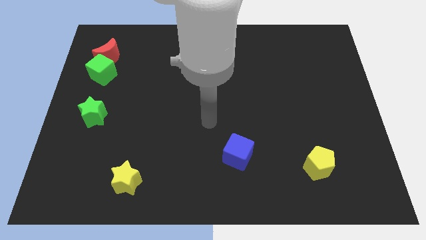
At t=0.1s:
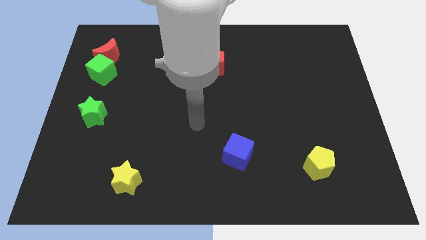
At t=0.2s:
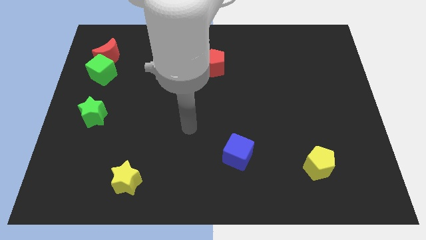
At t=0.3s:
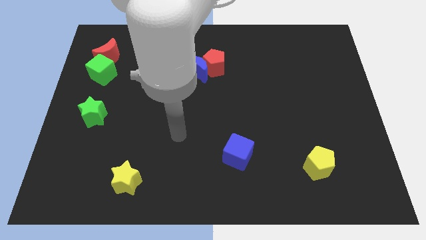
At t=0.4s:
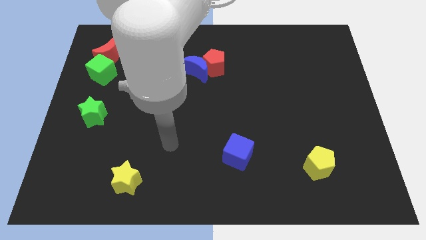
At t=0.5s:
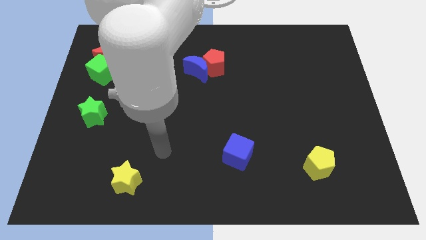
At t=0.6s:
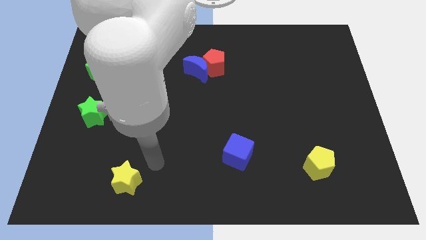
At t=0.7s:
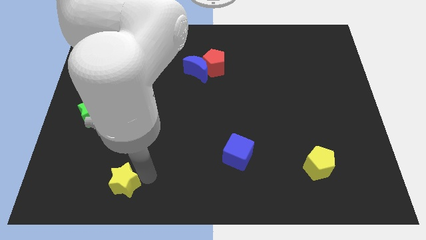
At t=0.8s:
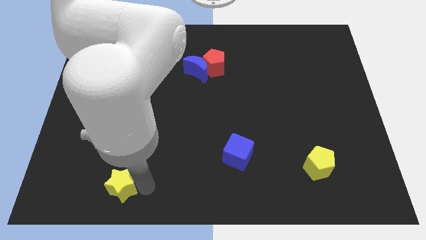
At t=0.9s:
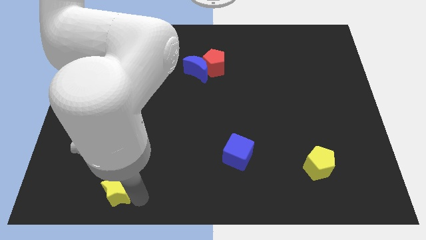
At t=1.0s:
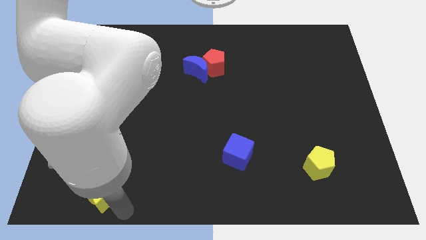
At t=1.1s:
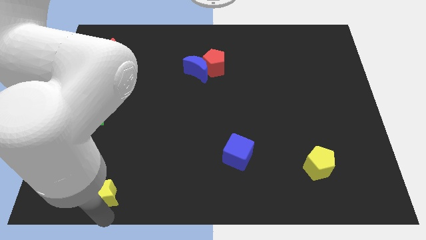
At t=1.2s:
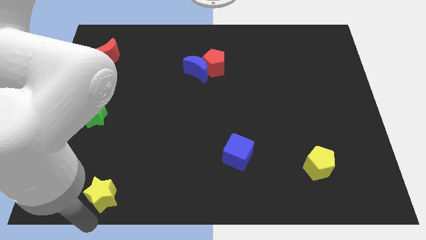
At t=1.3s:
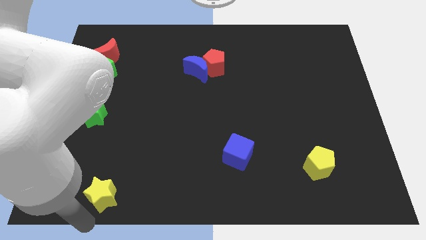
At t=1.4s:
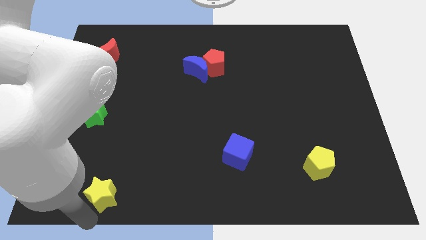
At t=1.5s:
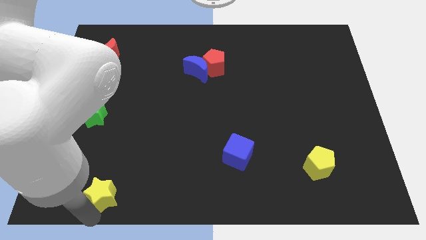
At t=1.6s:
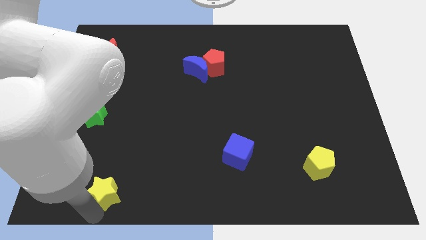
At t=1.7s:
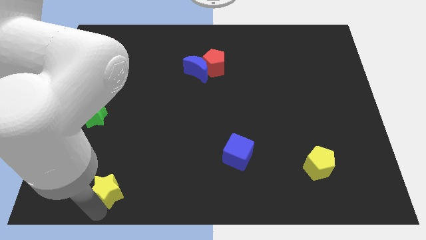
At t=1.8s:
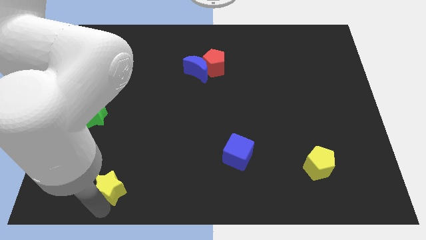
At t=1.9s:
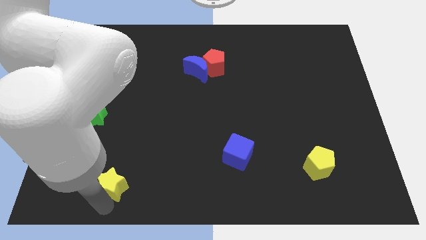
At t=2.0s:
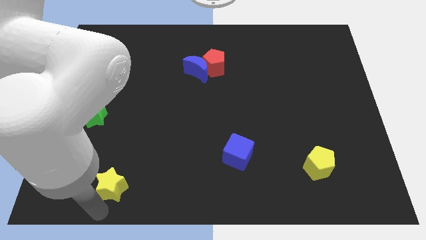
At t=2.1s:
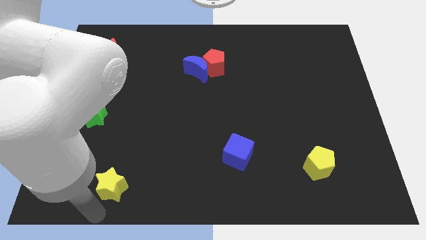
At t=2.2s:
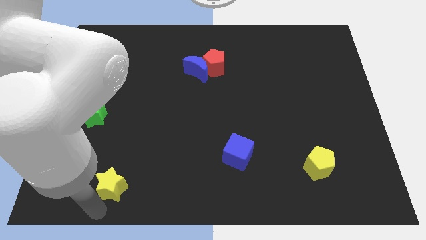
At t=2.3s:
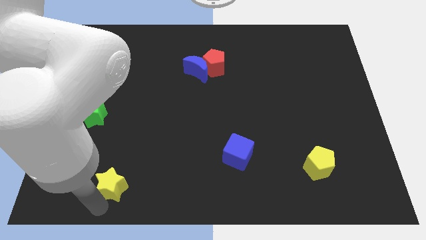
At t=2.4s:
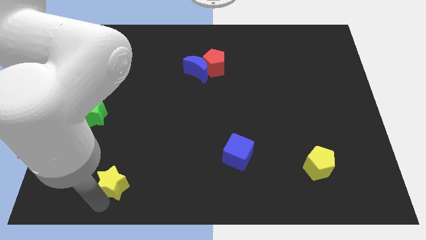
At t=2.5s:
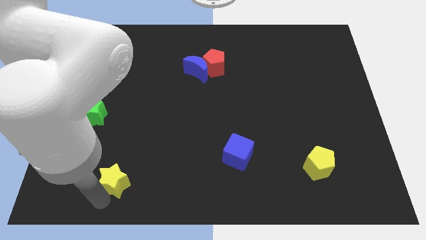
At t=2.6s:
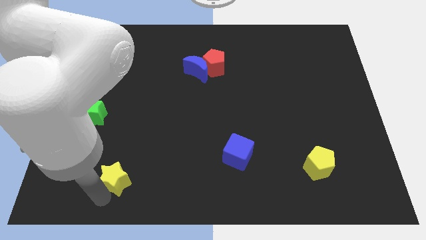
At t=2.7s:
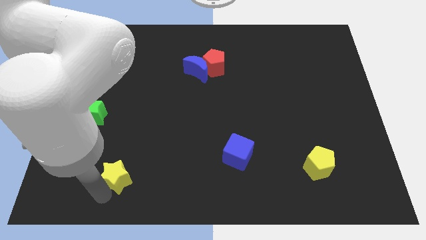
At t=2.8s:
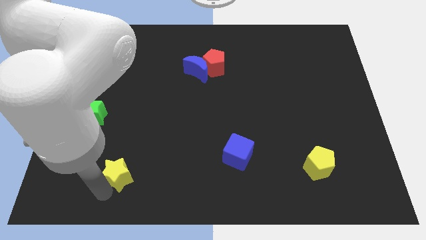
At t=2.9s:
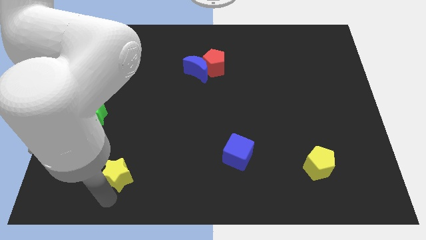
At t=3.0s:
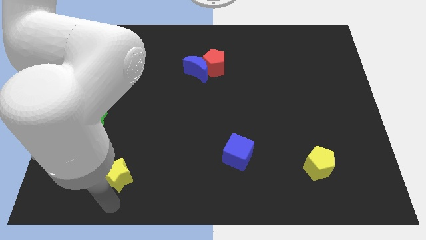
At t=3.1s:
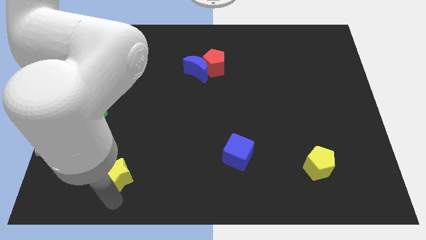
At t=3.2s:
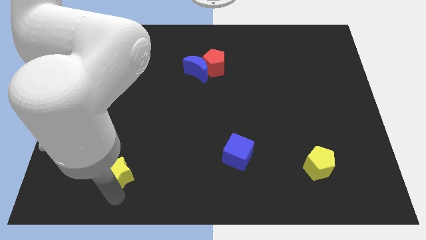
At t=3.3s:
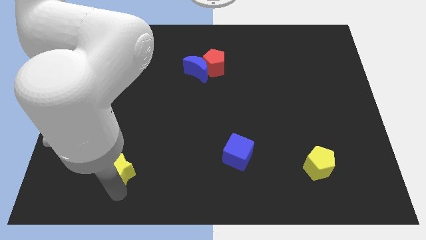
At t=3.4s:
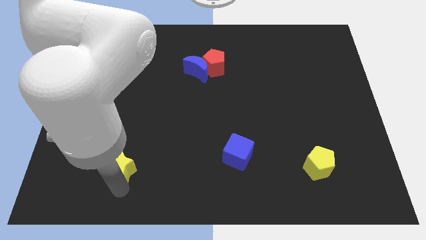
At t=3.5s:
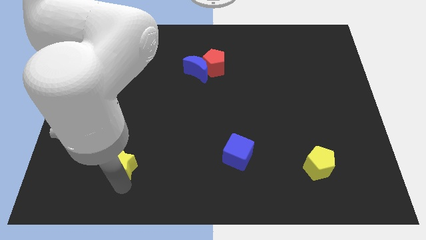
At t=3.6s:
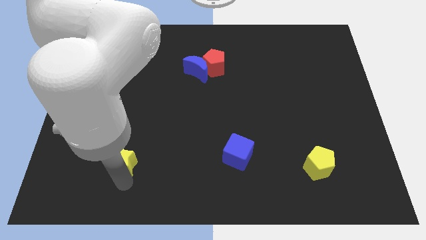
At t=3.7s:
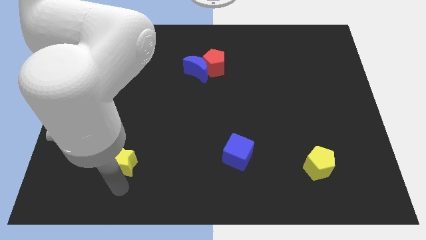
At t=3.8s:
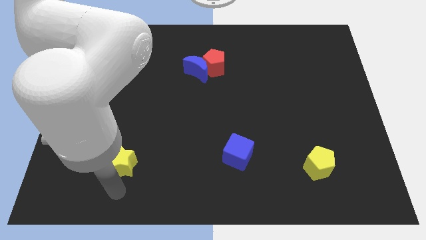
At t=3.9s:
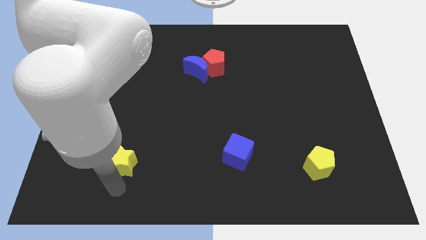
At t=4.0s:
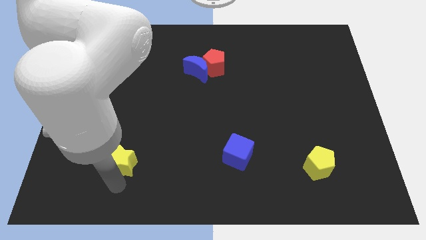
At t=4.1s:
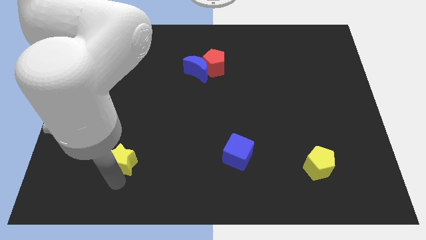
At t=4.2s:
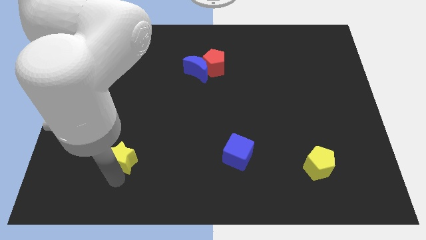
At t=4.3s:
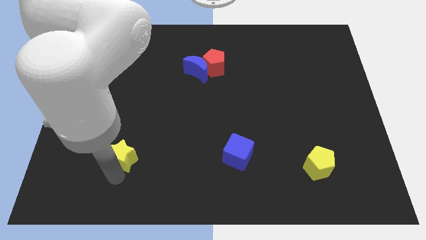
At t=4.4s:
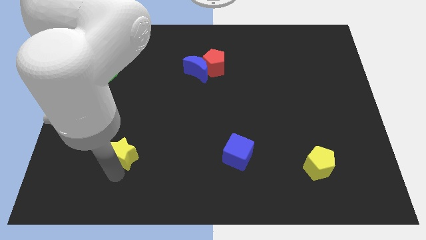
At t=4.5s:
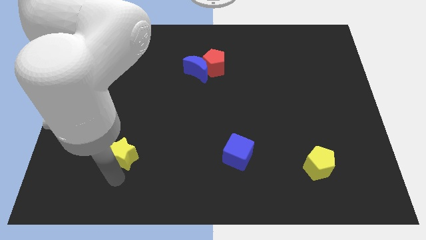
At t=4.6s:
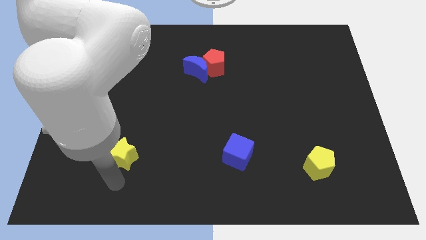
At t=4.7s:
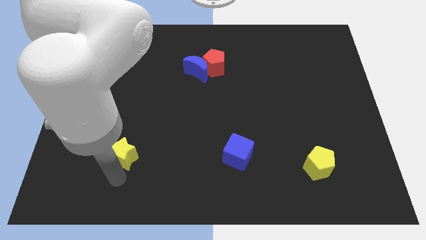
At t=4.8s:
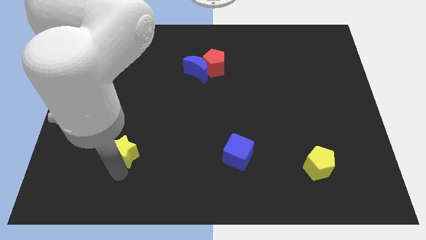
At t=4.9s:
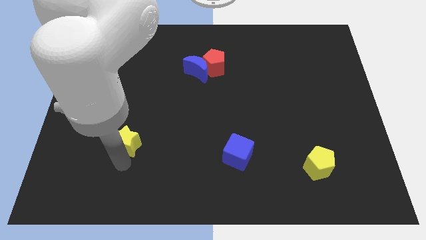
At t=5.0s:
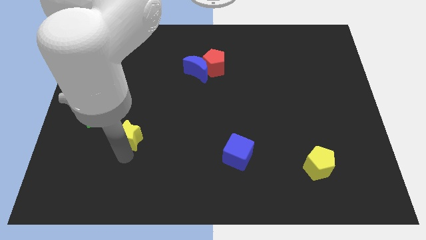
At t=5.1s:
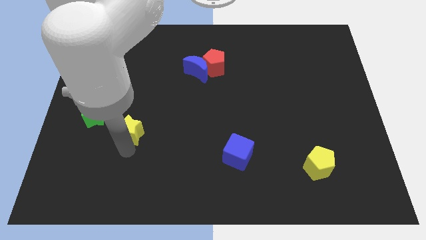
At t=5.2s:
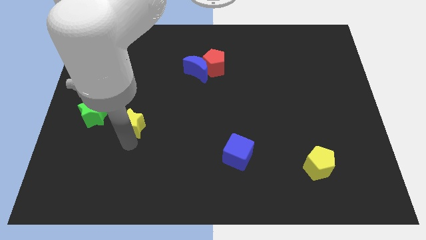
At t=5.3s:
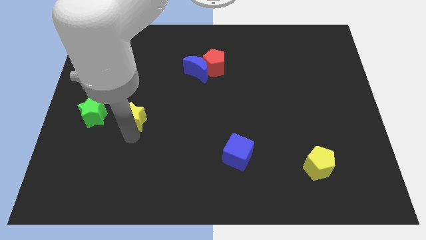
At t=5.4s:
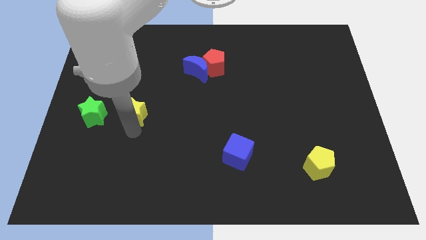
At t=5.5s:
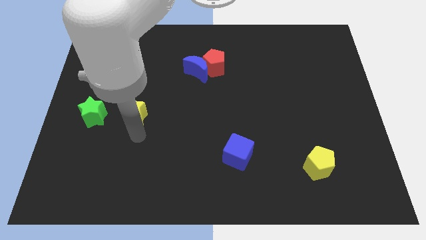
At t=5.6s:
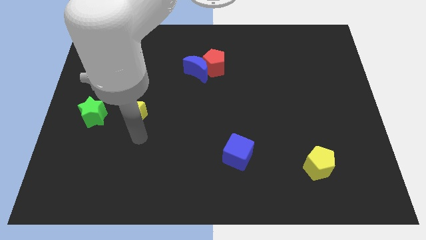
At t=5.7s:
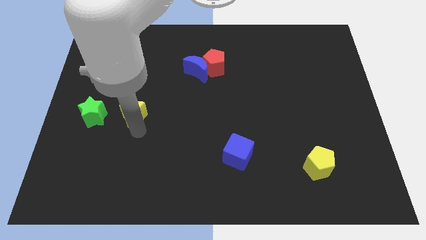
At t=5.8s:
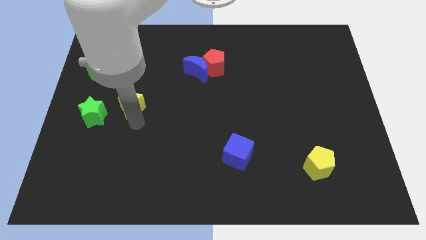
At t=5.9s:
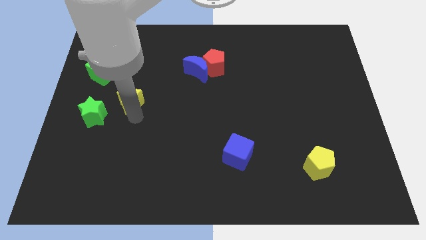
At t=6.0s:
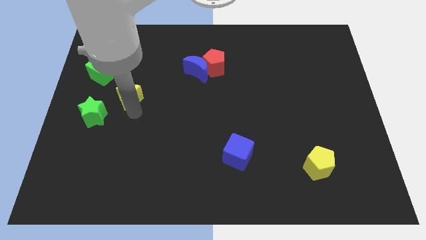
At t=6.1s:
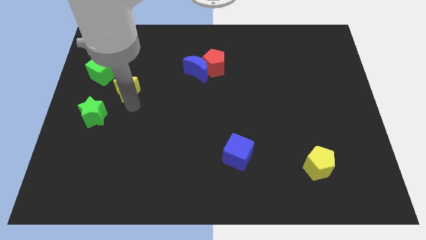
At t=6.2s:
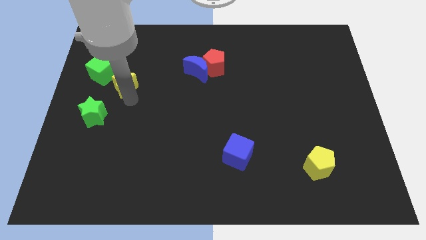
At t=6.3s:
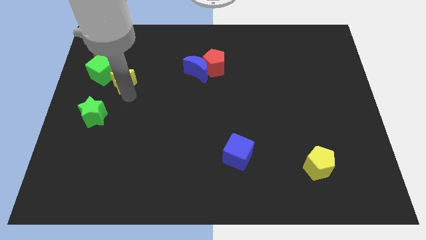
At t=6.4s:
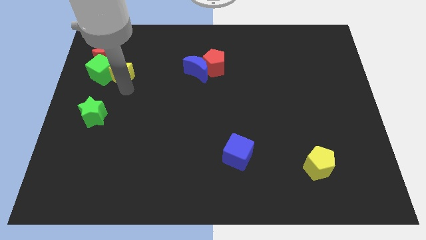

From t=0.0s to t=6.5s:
put the yellow star to the top right of the green cube

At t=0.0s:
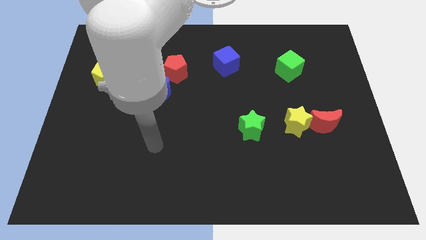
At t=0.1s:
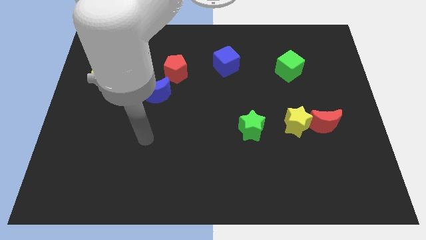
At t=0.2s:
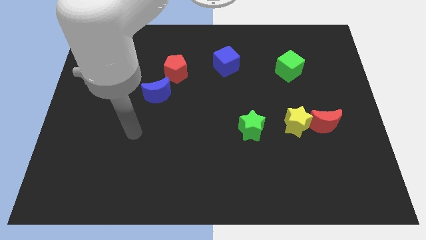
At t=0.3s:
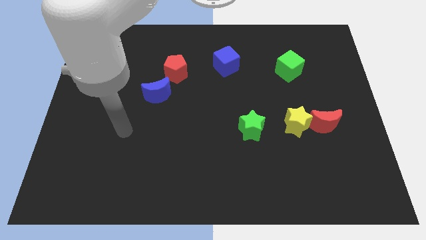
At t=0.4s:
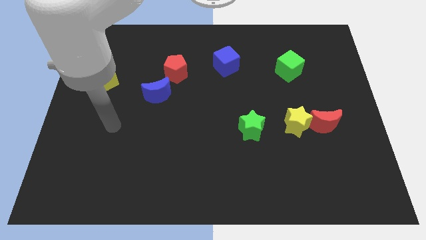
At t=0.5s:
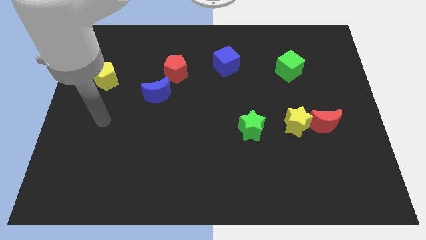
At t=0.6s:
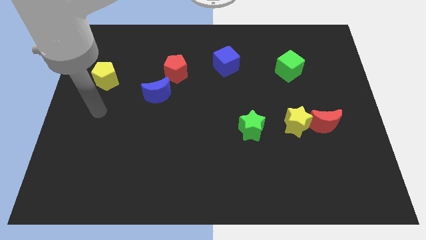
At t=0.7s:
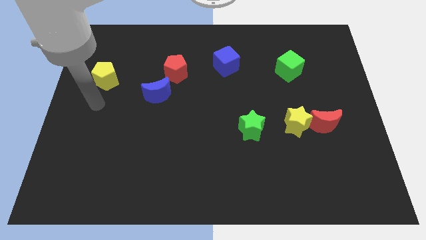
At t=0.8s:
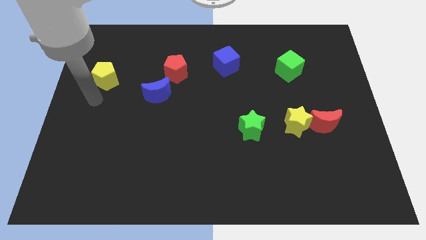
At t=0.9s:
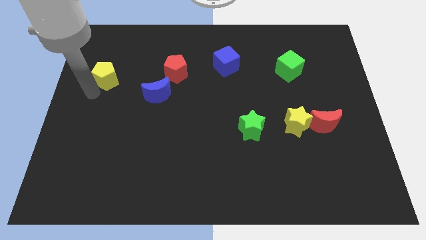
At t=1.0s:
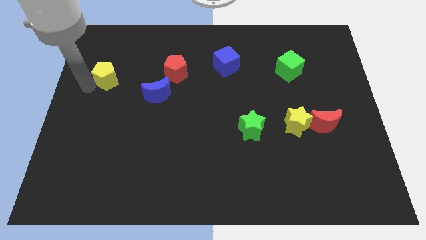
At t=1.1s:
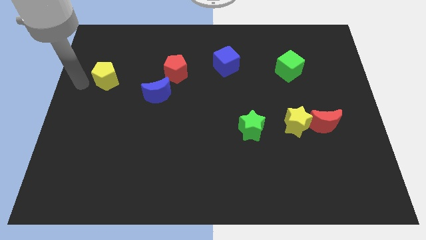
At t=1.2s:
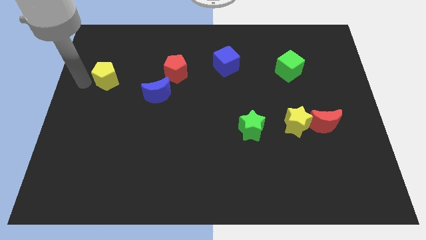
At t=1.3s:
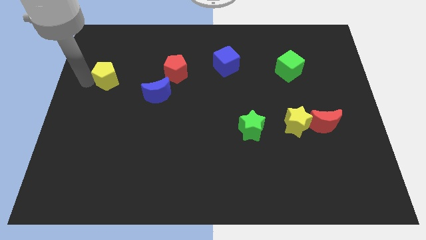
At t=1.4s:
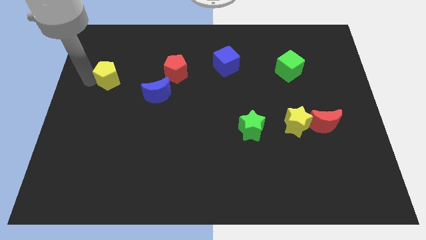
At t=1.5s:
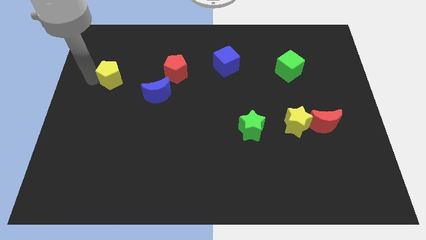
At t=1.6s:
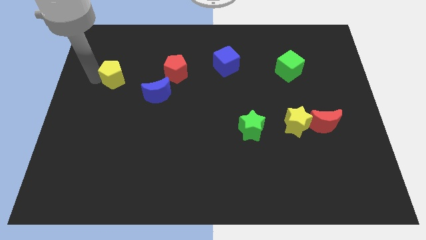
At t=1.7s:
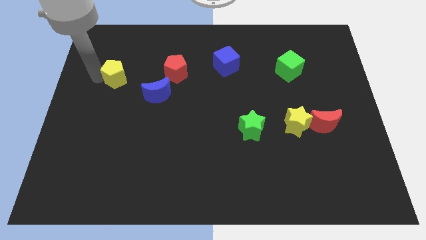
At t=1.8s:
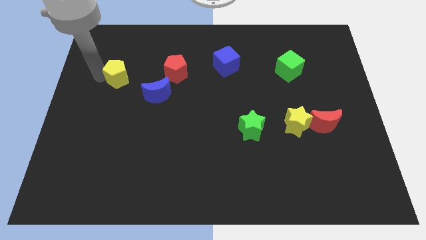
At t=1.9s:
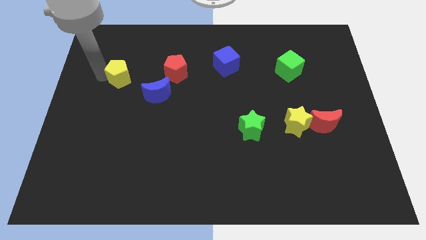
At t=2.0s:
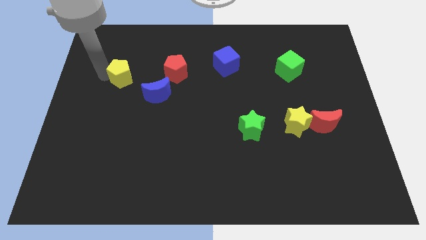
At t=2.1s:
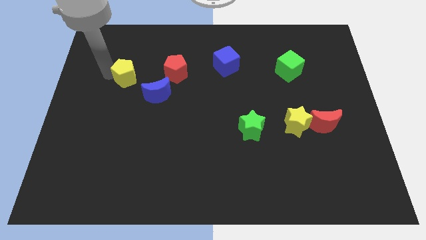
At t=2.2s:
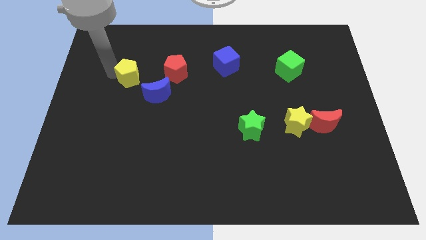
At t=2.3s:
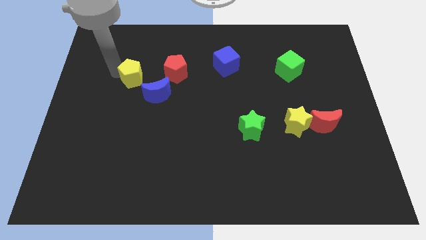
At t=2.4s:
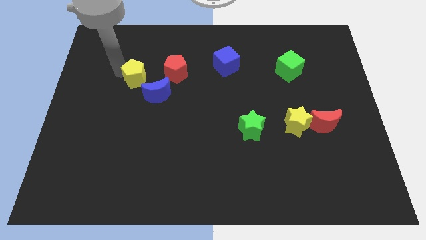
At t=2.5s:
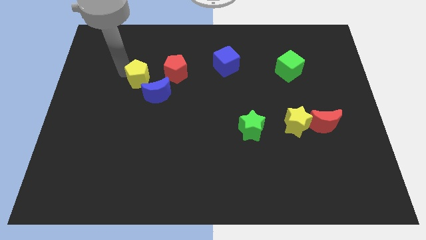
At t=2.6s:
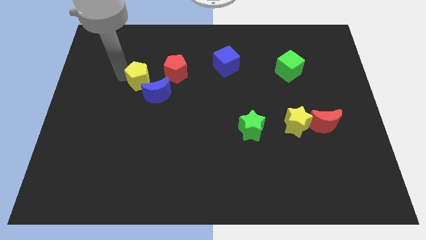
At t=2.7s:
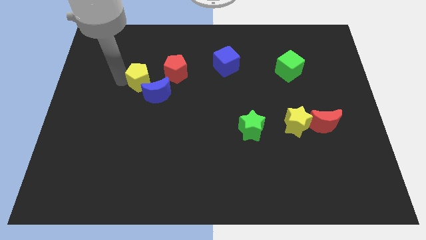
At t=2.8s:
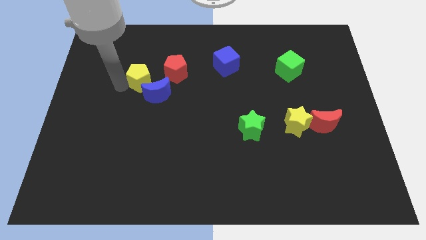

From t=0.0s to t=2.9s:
move the yellow pentagon to the top side of the blue moon
